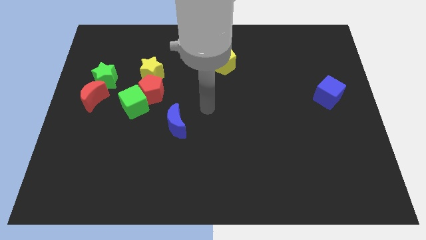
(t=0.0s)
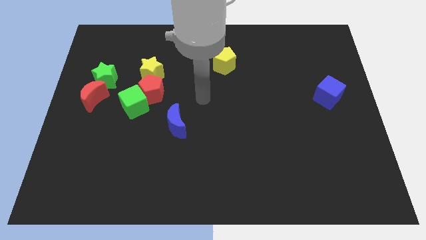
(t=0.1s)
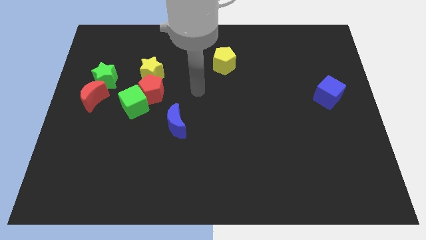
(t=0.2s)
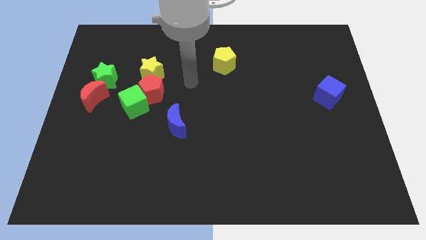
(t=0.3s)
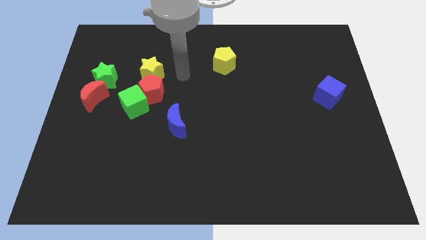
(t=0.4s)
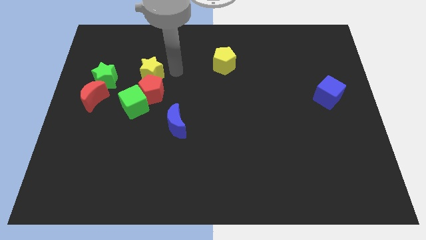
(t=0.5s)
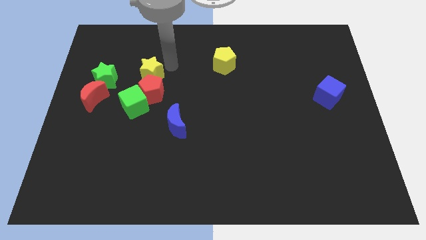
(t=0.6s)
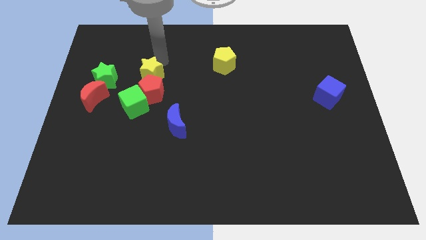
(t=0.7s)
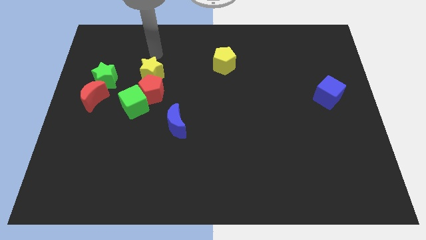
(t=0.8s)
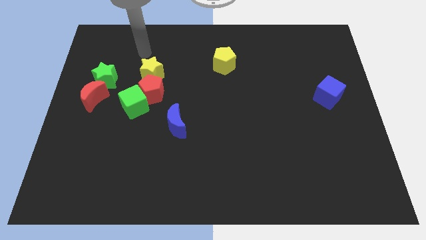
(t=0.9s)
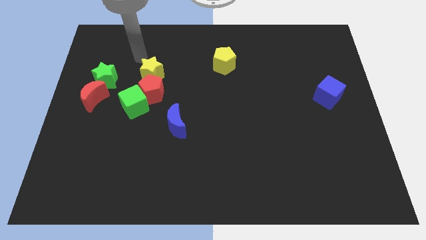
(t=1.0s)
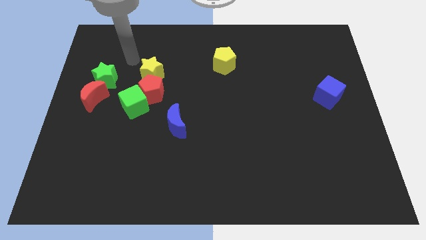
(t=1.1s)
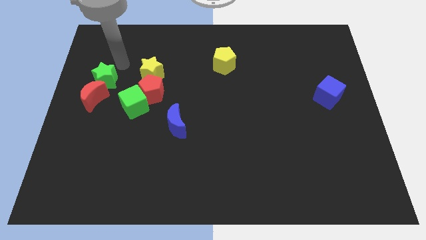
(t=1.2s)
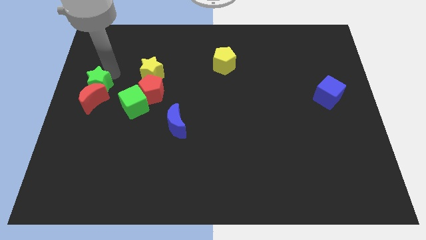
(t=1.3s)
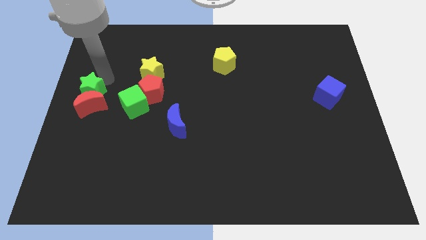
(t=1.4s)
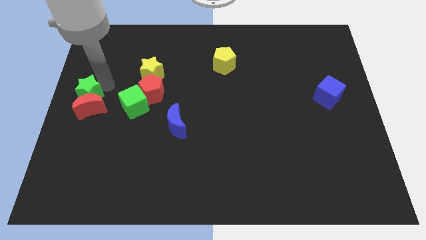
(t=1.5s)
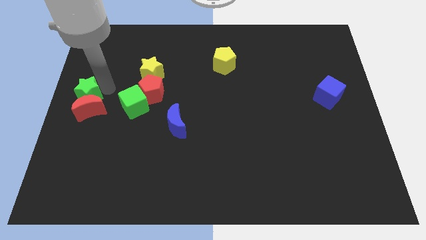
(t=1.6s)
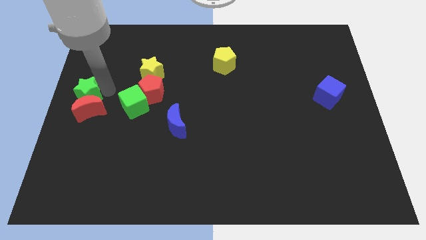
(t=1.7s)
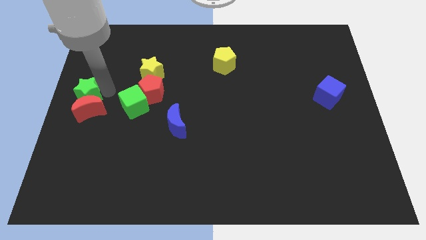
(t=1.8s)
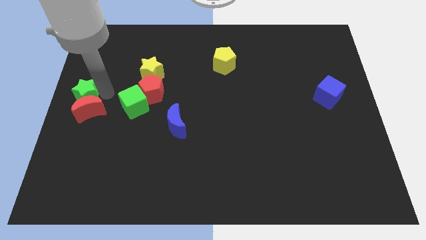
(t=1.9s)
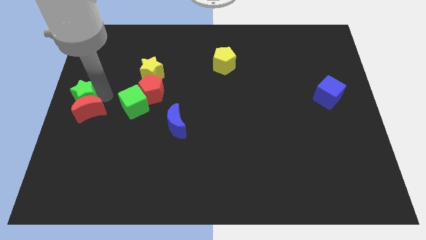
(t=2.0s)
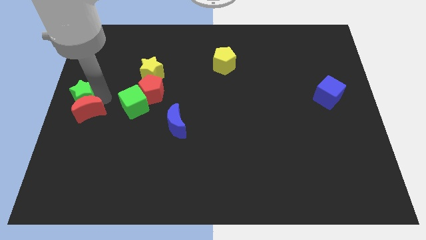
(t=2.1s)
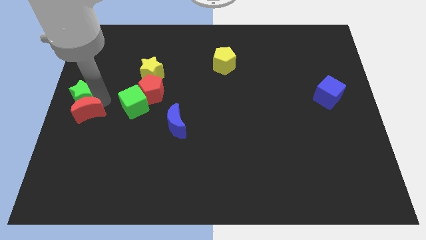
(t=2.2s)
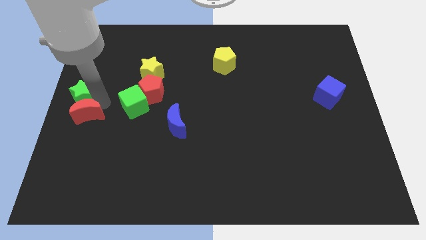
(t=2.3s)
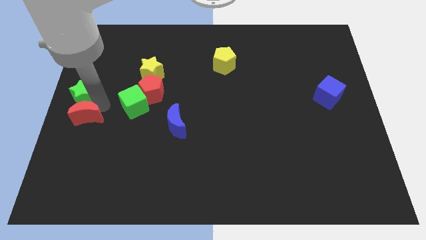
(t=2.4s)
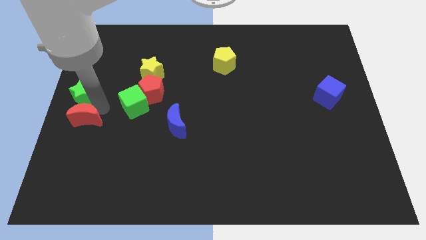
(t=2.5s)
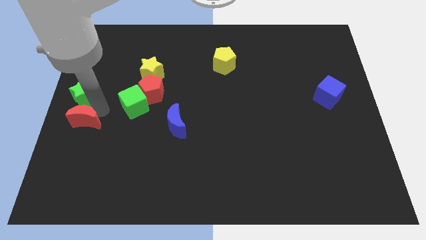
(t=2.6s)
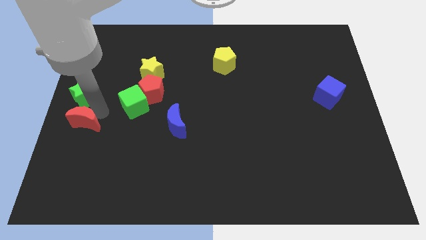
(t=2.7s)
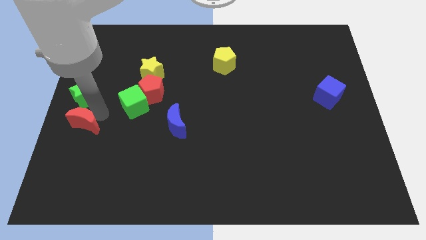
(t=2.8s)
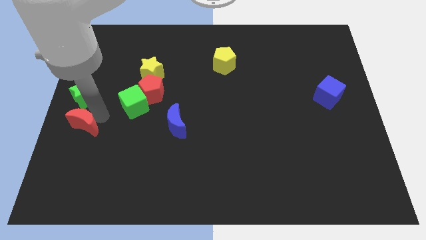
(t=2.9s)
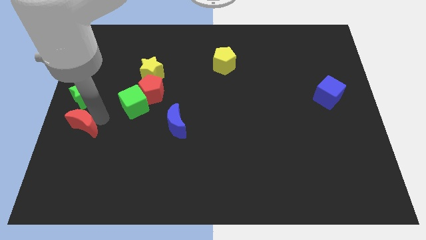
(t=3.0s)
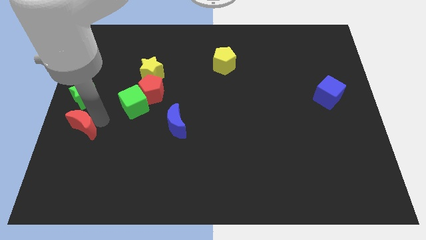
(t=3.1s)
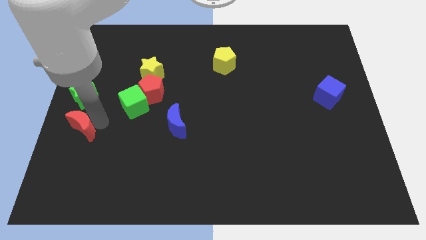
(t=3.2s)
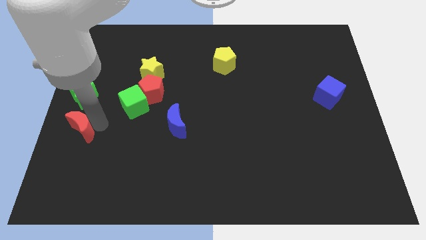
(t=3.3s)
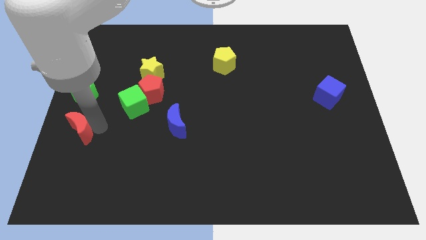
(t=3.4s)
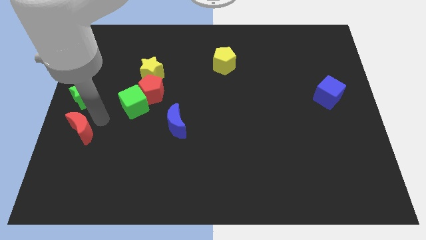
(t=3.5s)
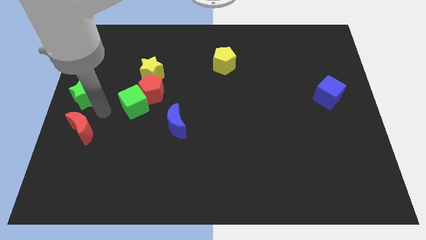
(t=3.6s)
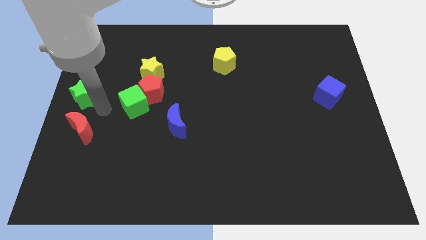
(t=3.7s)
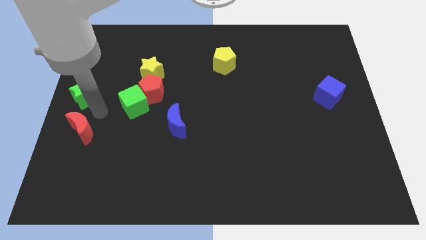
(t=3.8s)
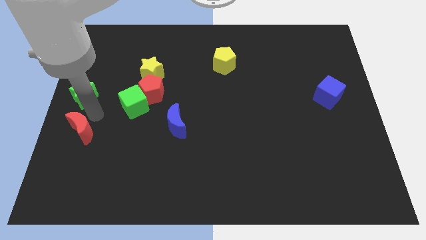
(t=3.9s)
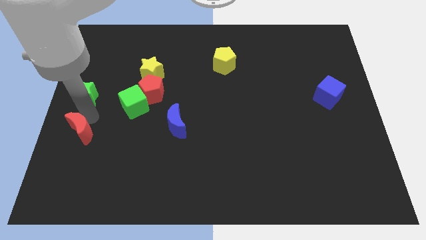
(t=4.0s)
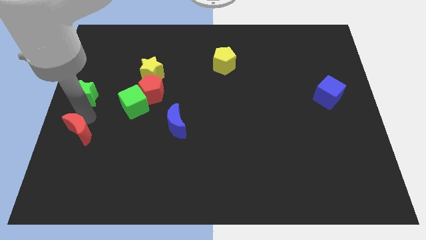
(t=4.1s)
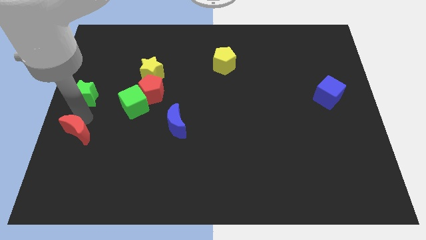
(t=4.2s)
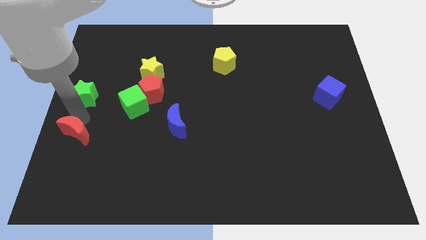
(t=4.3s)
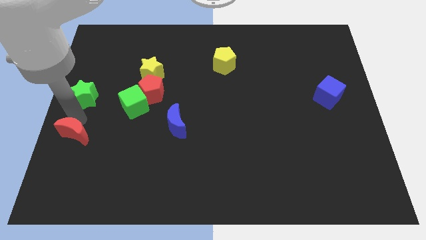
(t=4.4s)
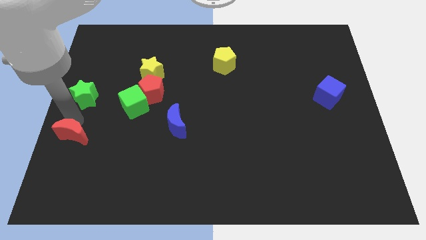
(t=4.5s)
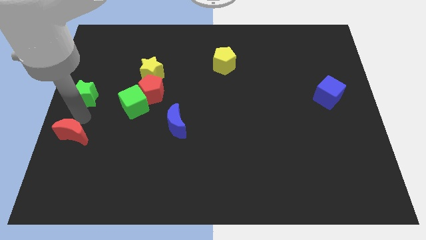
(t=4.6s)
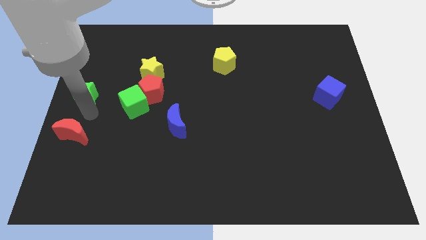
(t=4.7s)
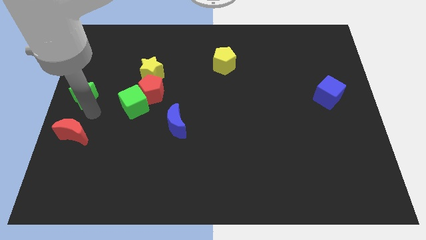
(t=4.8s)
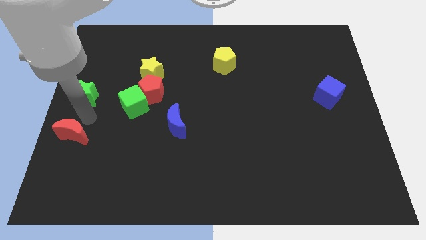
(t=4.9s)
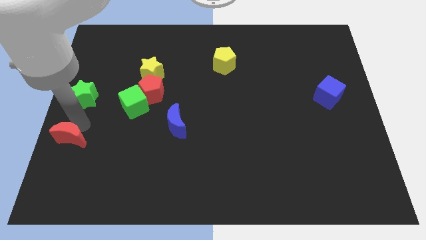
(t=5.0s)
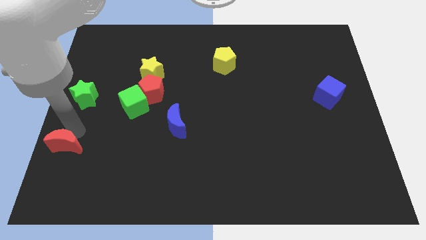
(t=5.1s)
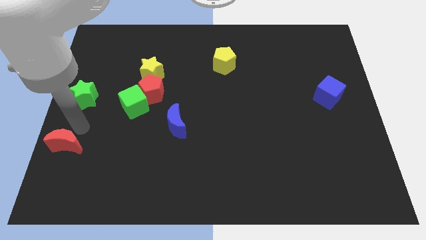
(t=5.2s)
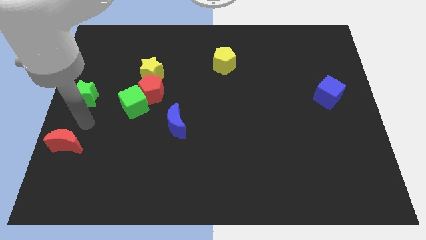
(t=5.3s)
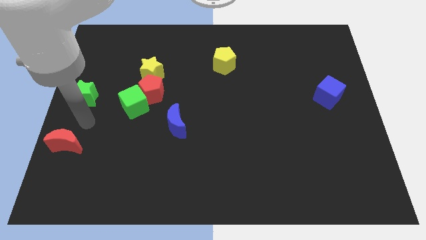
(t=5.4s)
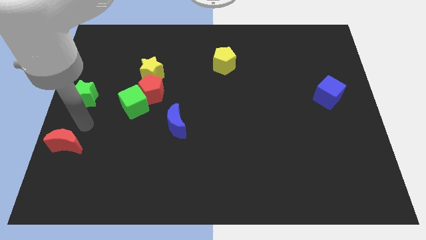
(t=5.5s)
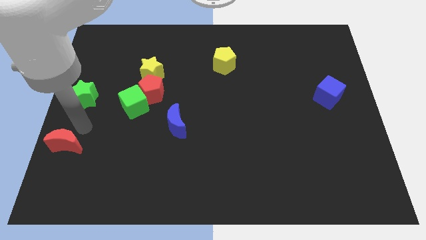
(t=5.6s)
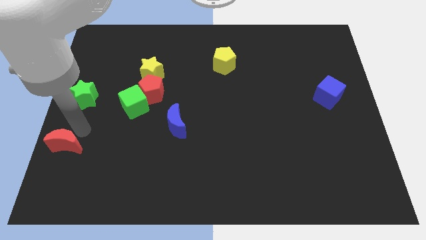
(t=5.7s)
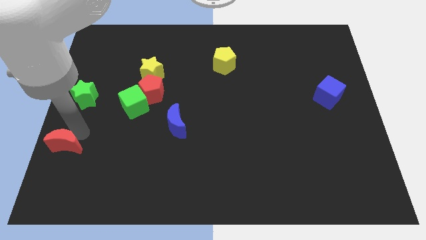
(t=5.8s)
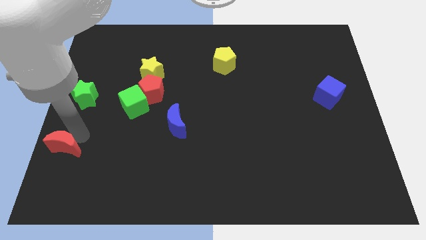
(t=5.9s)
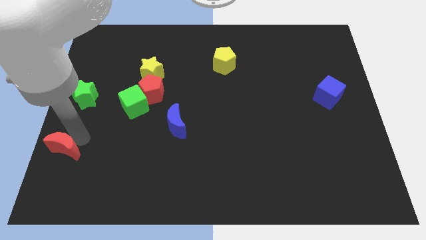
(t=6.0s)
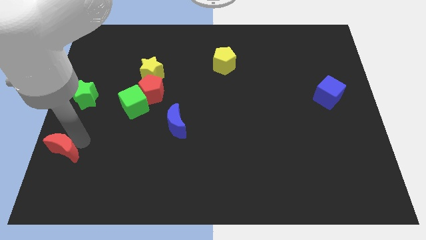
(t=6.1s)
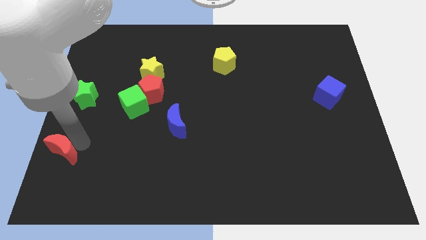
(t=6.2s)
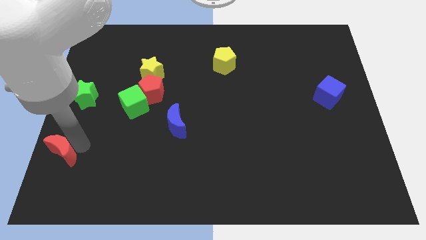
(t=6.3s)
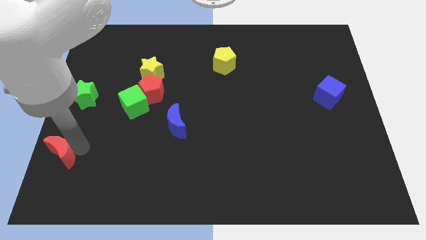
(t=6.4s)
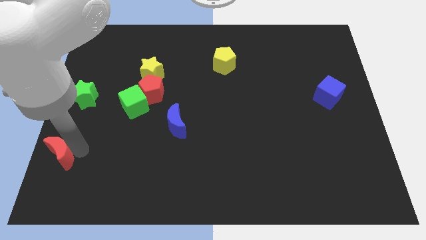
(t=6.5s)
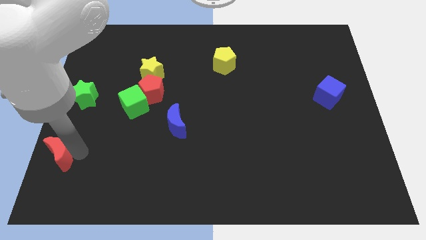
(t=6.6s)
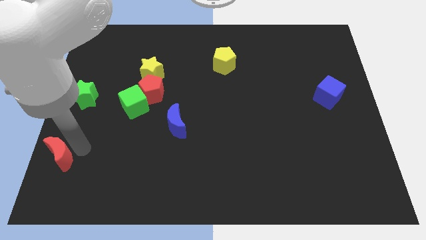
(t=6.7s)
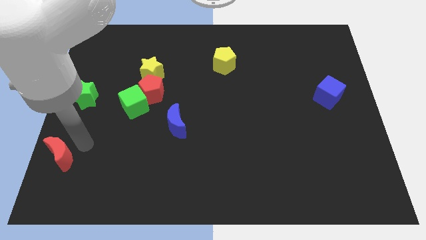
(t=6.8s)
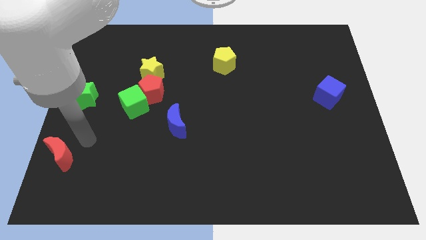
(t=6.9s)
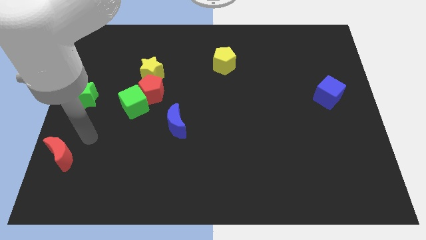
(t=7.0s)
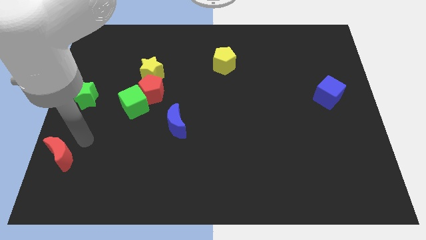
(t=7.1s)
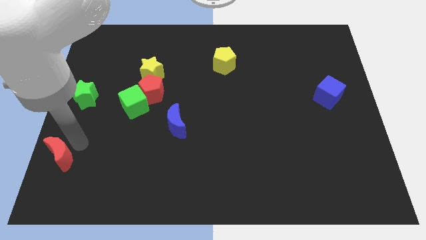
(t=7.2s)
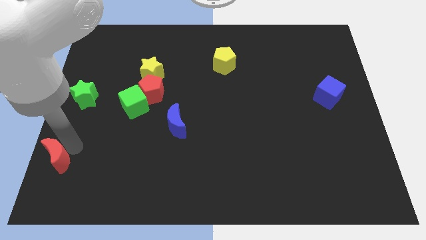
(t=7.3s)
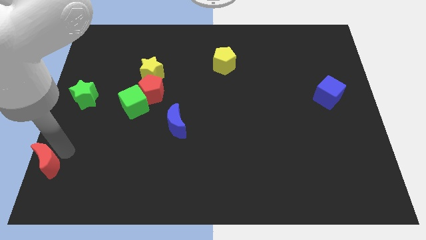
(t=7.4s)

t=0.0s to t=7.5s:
put the red moon to the bottom left corner
